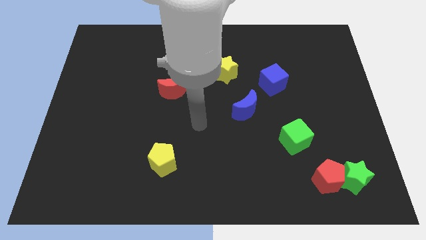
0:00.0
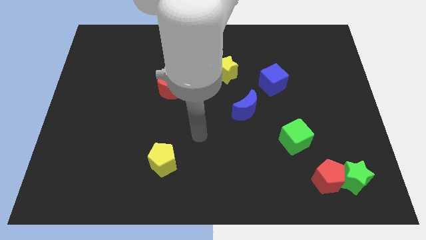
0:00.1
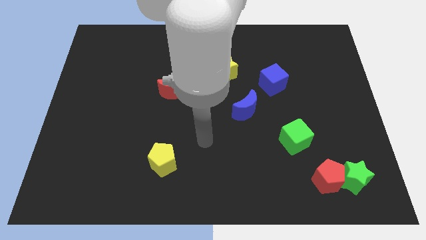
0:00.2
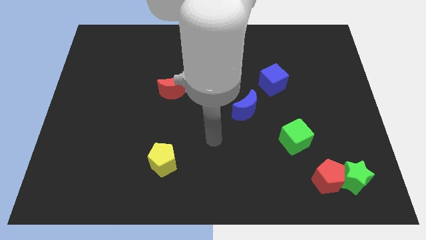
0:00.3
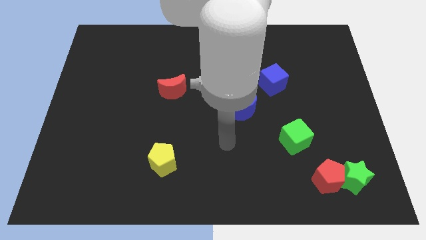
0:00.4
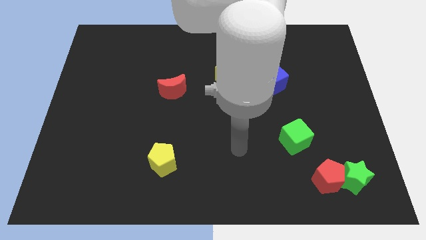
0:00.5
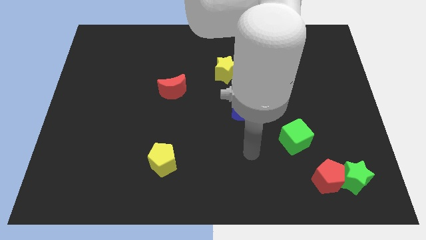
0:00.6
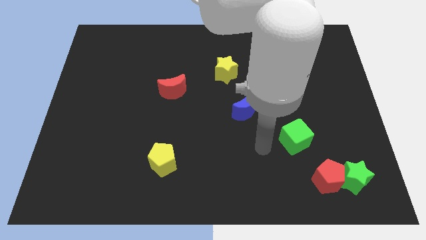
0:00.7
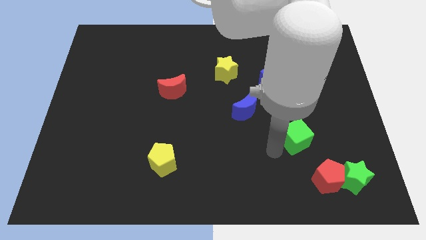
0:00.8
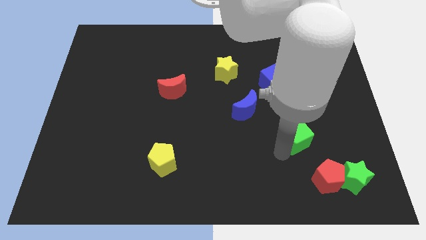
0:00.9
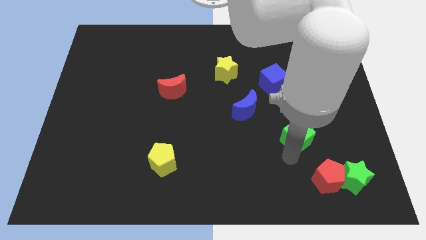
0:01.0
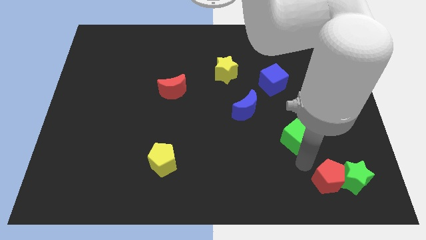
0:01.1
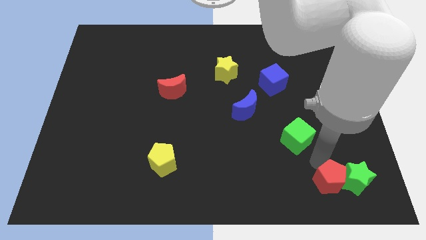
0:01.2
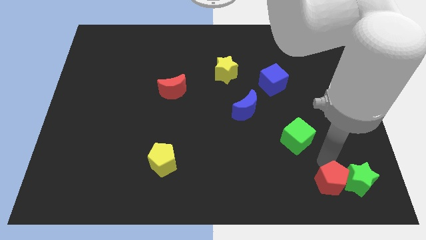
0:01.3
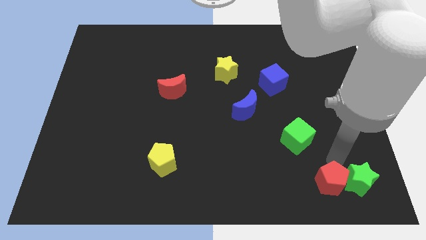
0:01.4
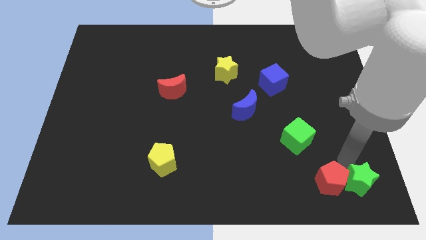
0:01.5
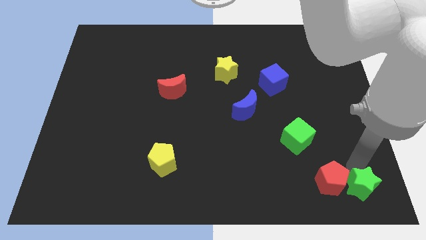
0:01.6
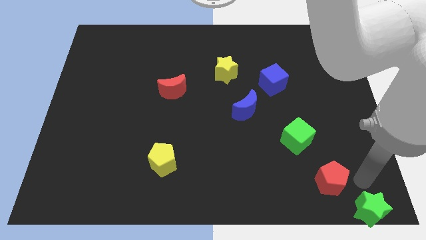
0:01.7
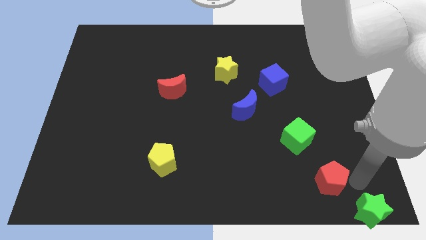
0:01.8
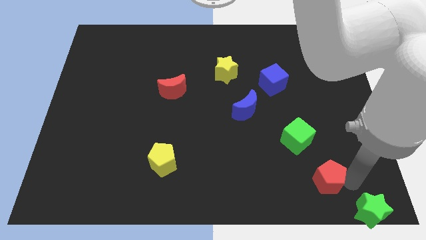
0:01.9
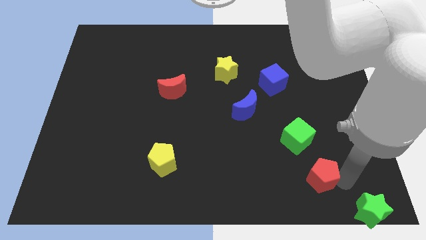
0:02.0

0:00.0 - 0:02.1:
pull the red pentagon apart from the green star

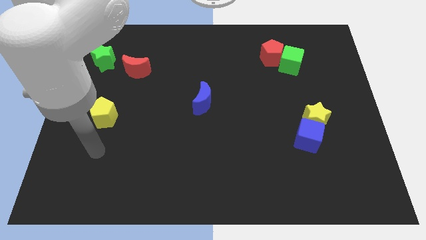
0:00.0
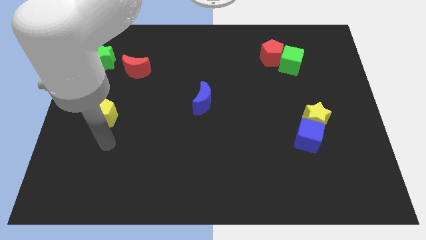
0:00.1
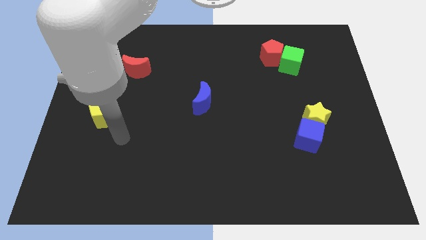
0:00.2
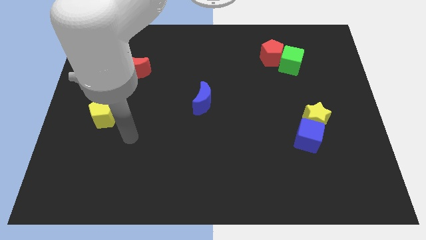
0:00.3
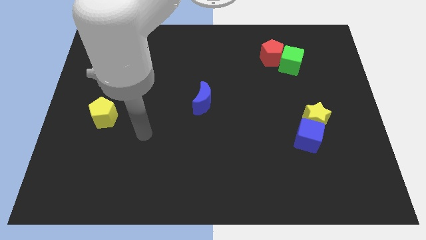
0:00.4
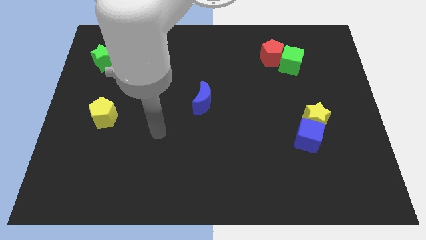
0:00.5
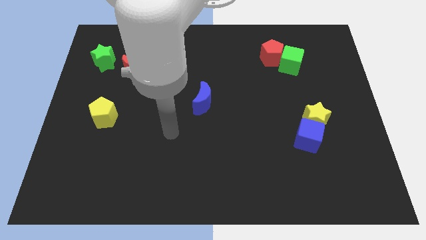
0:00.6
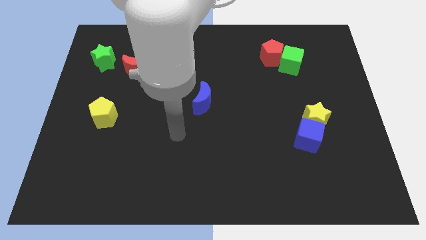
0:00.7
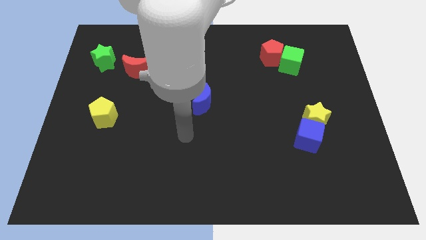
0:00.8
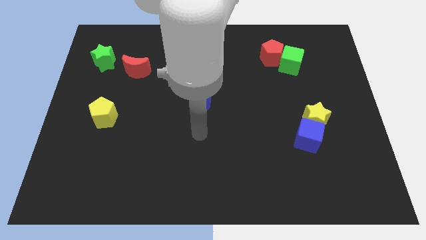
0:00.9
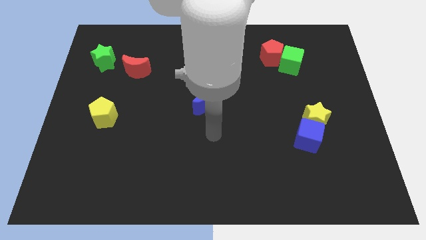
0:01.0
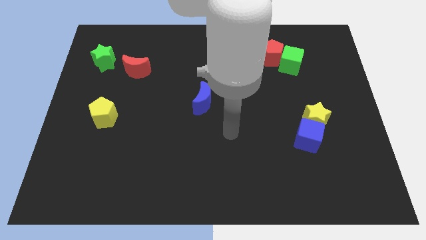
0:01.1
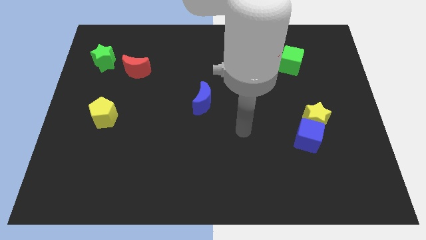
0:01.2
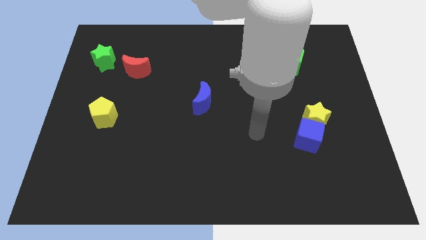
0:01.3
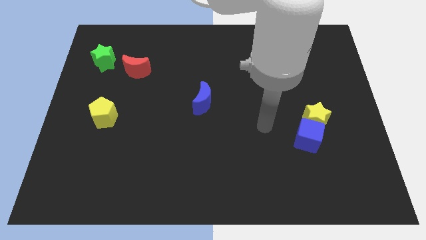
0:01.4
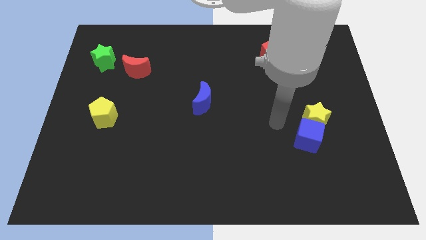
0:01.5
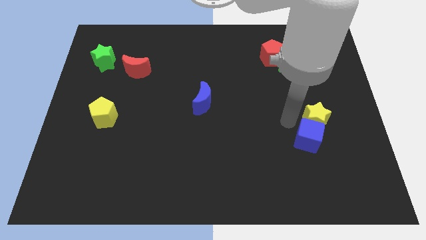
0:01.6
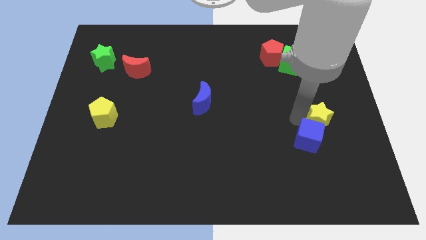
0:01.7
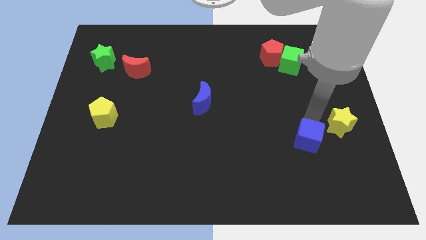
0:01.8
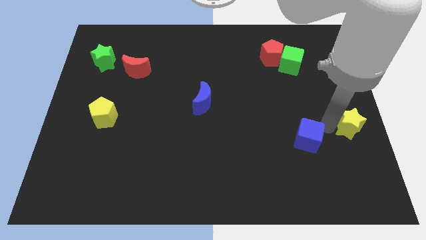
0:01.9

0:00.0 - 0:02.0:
pull the blue cube apart from the yellow star

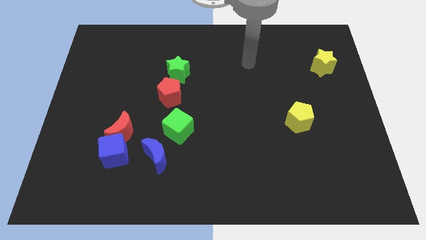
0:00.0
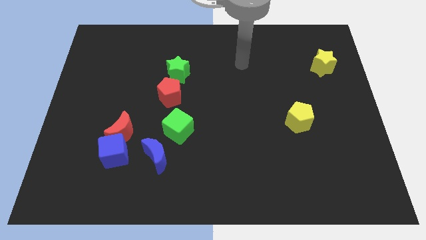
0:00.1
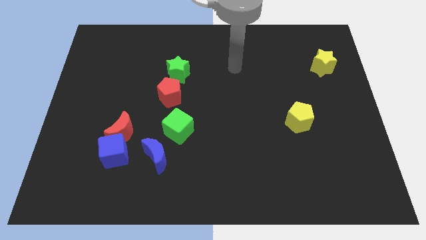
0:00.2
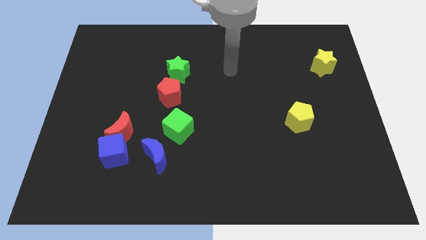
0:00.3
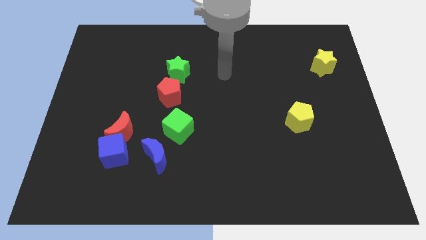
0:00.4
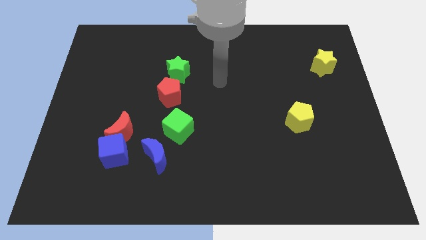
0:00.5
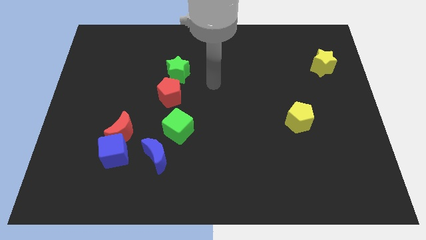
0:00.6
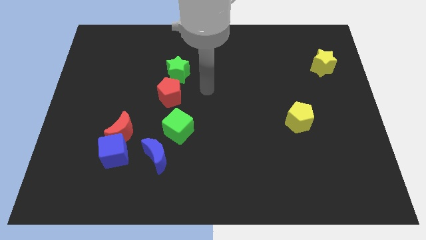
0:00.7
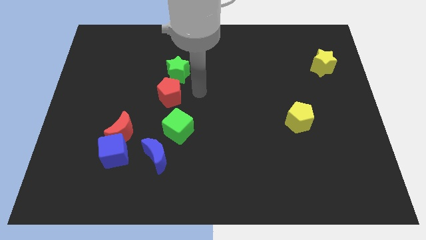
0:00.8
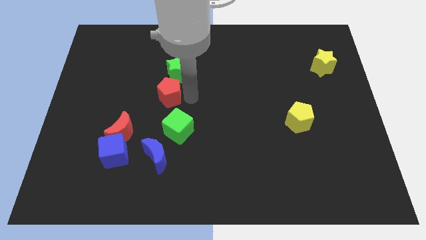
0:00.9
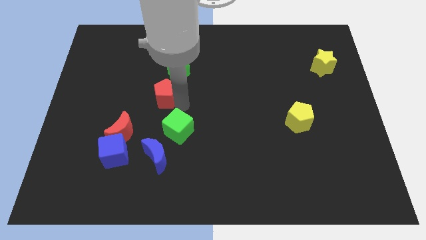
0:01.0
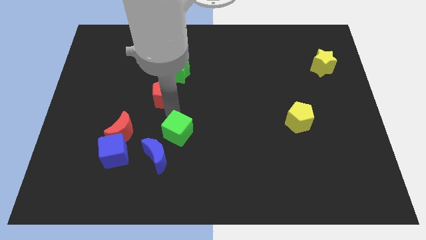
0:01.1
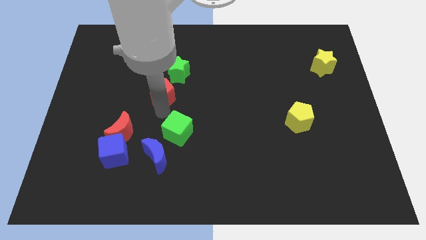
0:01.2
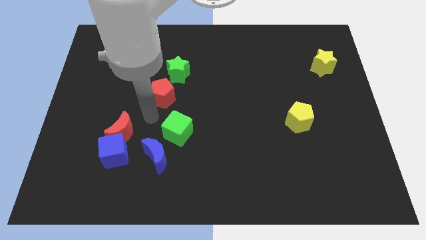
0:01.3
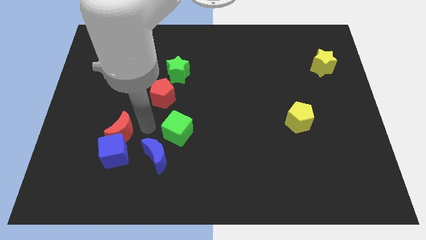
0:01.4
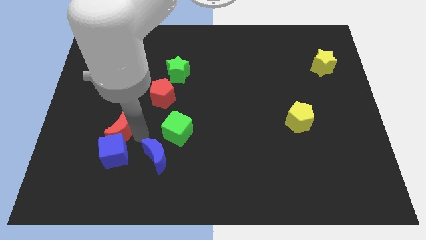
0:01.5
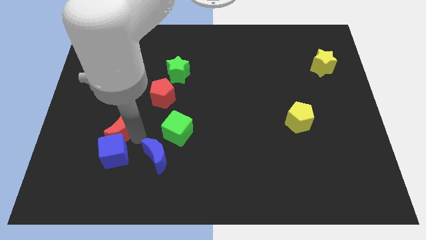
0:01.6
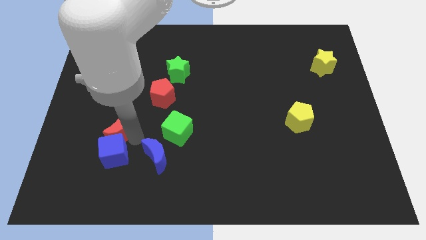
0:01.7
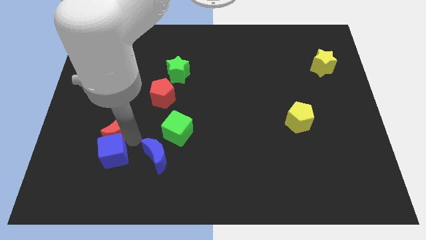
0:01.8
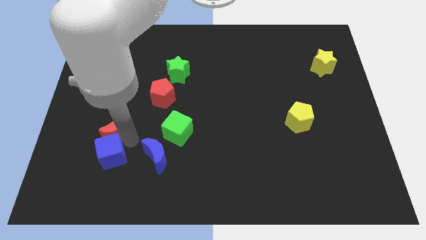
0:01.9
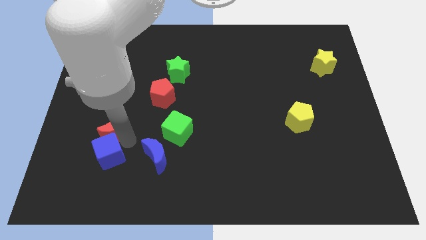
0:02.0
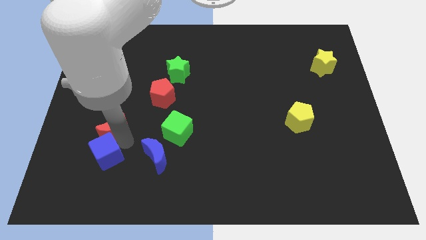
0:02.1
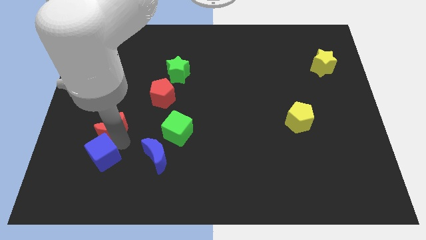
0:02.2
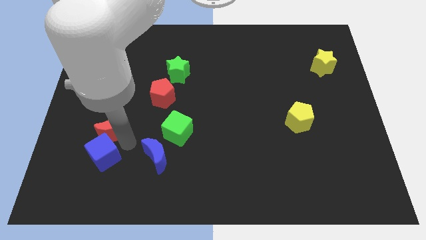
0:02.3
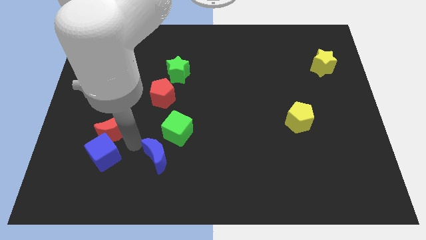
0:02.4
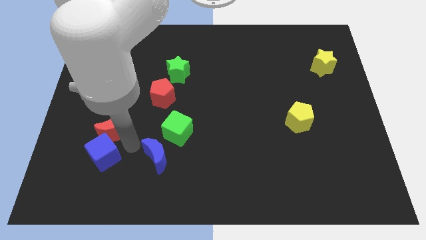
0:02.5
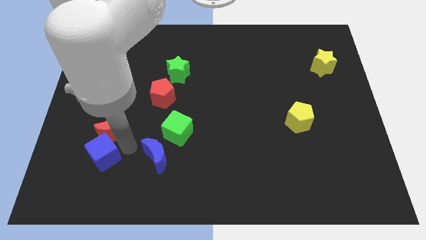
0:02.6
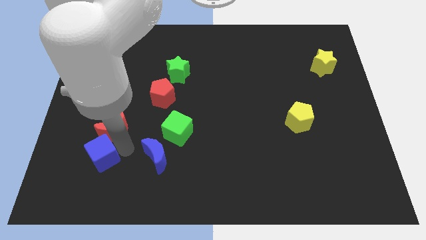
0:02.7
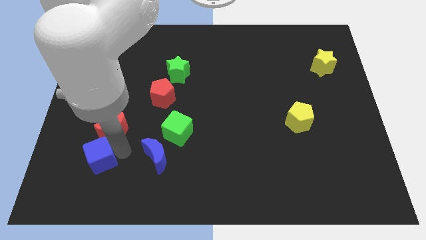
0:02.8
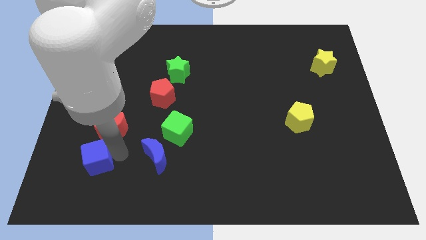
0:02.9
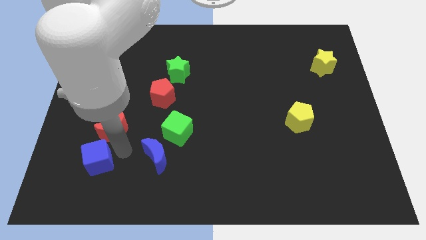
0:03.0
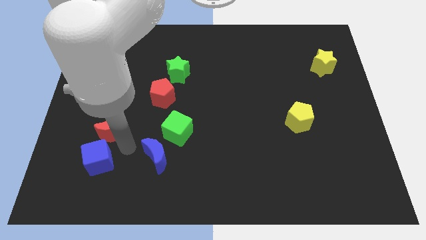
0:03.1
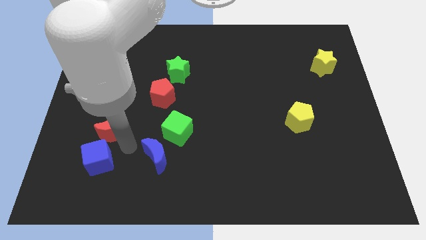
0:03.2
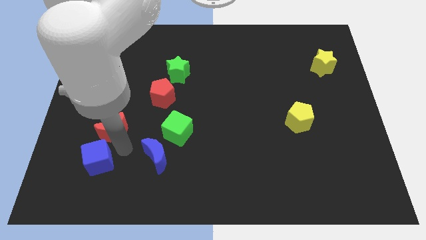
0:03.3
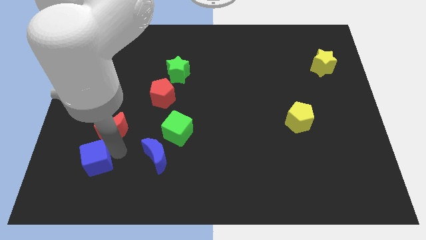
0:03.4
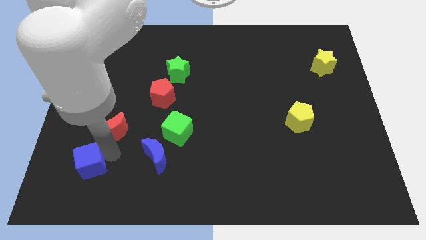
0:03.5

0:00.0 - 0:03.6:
pull the blue cube apart from the red moon and blue moon

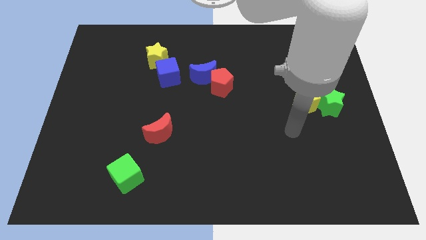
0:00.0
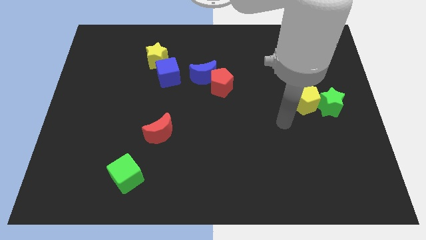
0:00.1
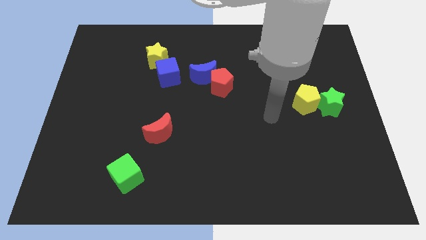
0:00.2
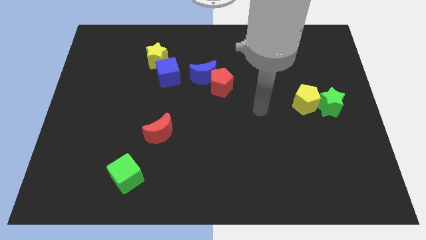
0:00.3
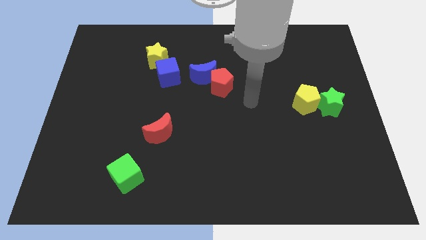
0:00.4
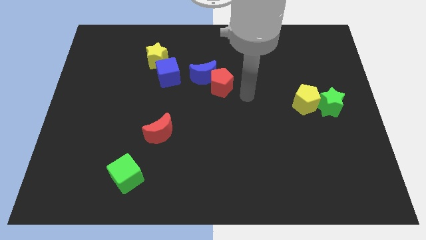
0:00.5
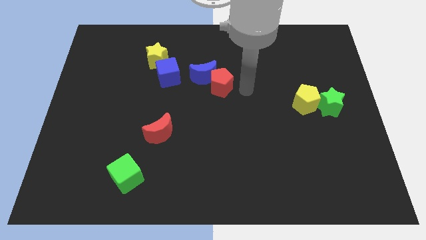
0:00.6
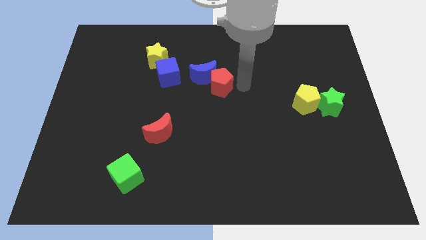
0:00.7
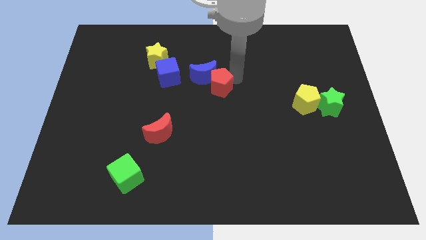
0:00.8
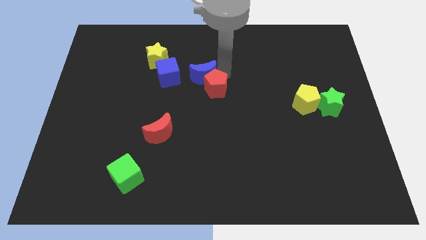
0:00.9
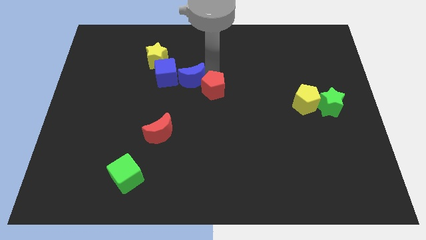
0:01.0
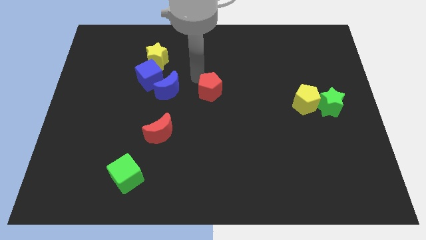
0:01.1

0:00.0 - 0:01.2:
separate the red pentagon from the blue moon

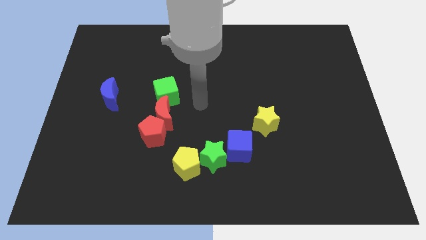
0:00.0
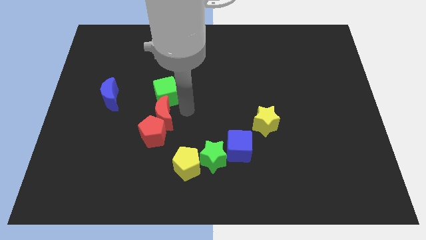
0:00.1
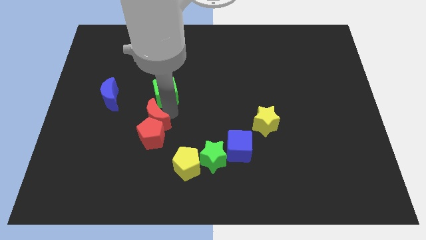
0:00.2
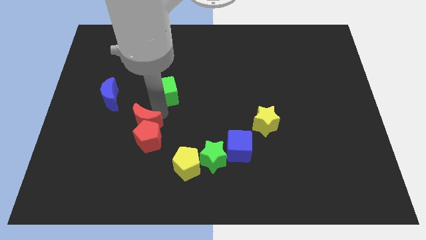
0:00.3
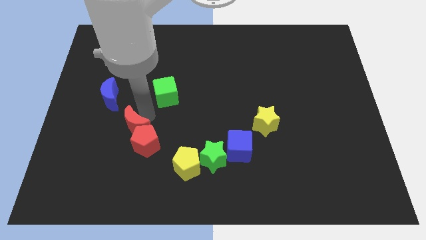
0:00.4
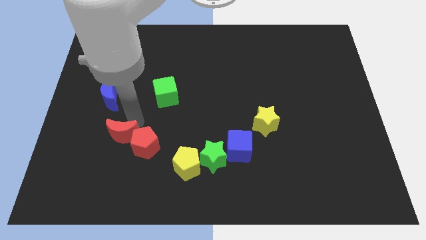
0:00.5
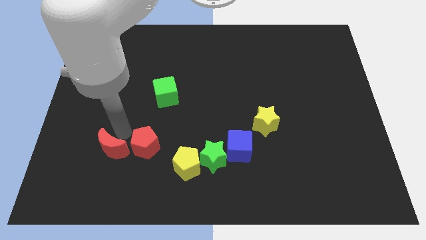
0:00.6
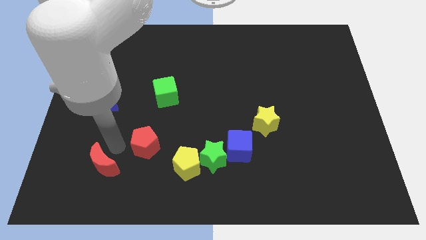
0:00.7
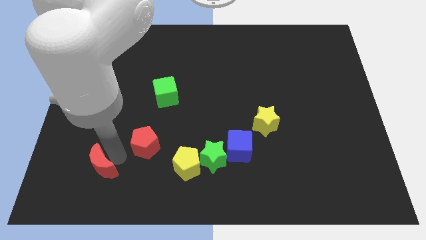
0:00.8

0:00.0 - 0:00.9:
move the red pentagon away from the red moon
